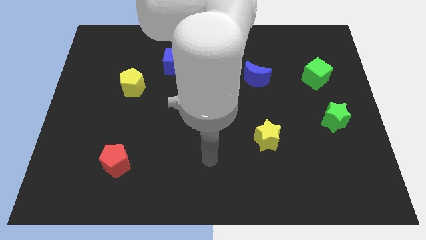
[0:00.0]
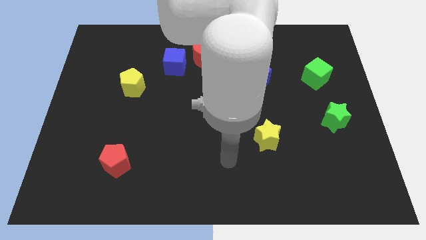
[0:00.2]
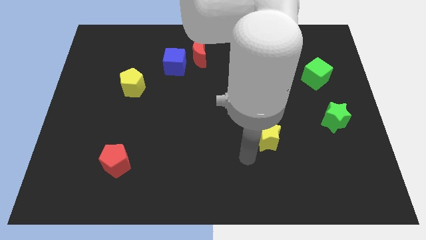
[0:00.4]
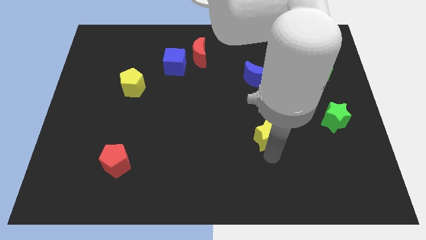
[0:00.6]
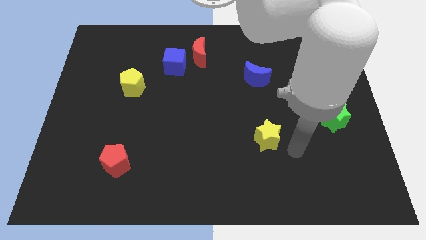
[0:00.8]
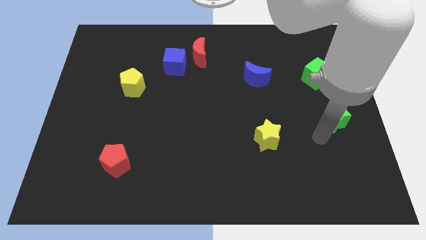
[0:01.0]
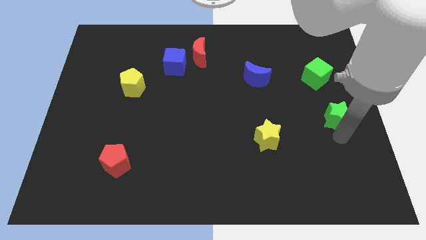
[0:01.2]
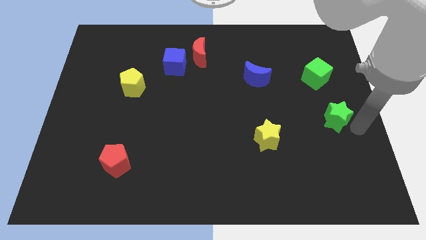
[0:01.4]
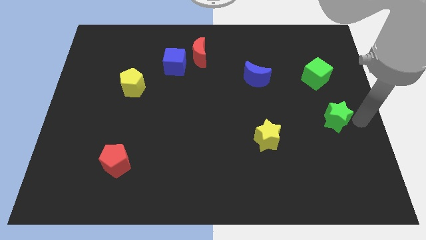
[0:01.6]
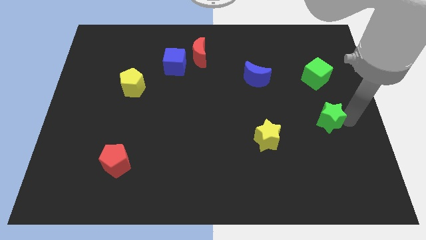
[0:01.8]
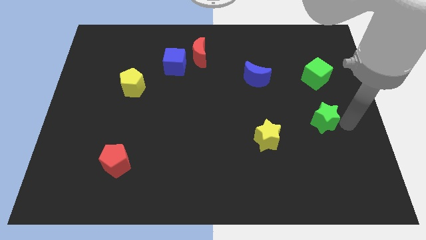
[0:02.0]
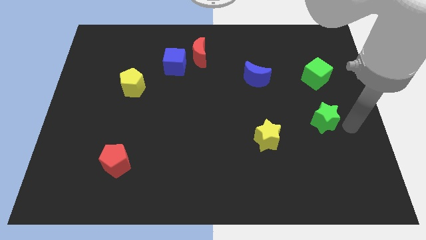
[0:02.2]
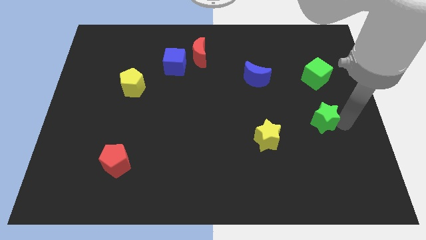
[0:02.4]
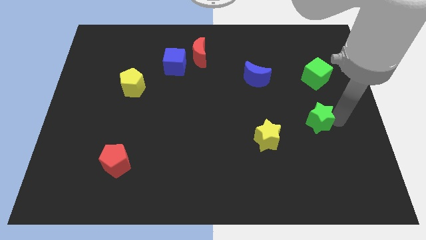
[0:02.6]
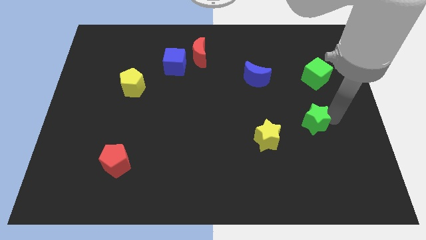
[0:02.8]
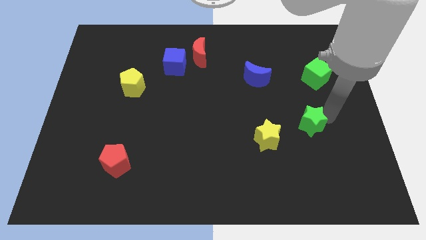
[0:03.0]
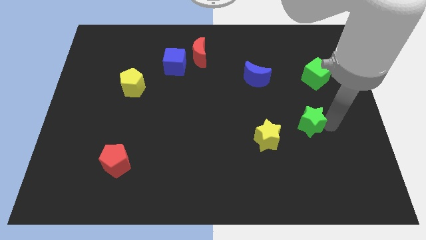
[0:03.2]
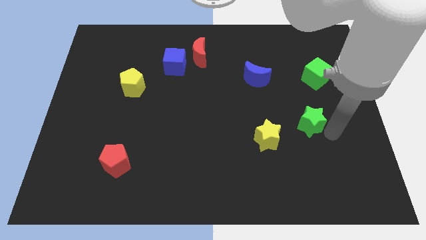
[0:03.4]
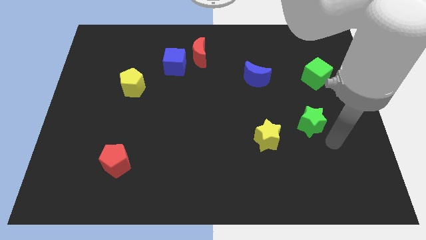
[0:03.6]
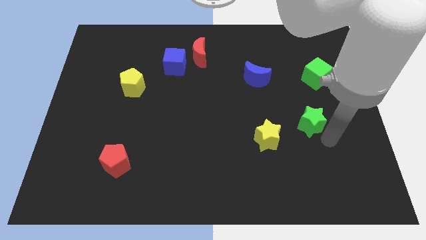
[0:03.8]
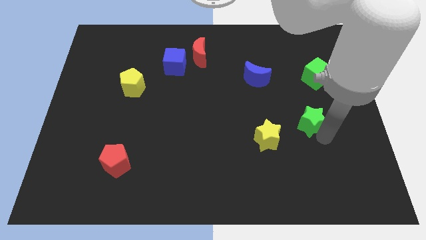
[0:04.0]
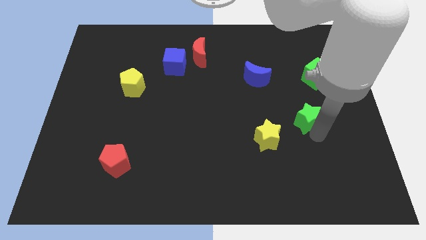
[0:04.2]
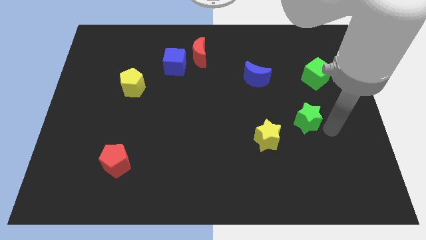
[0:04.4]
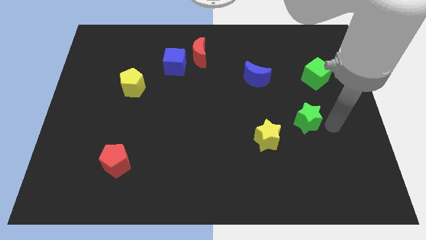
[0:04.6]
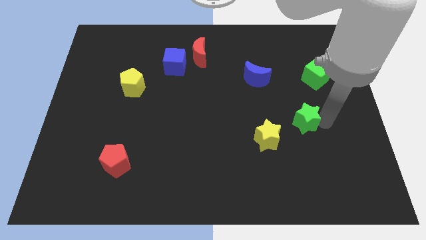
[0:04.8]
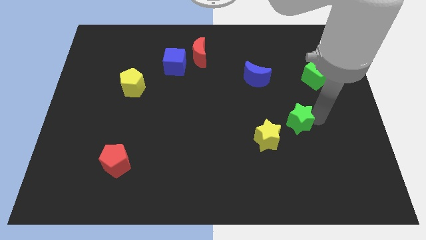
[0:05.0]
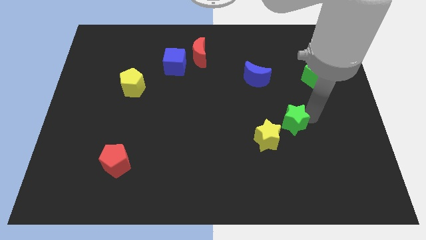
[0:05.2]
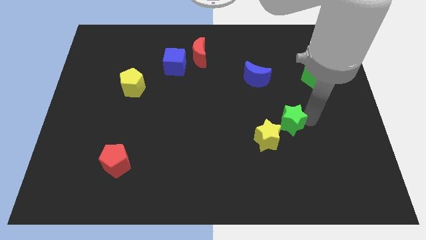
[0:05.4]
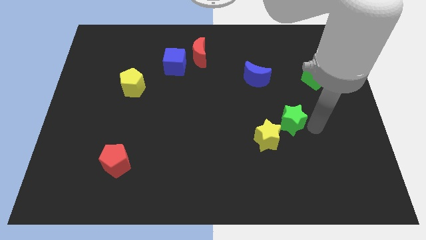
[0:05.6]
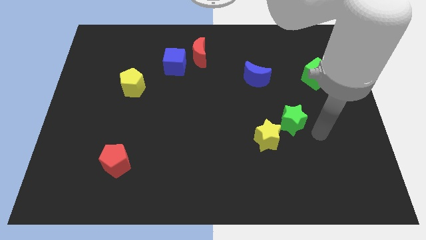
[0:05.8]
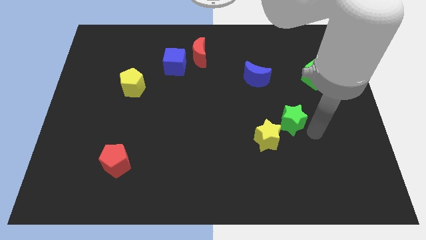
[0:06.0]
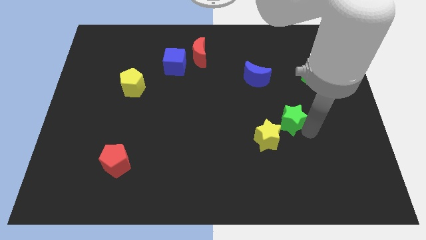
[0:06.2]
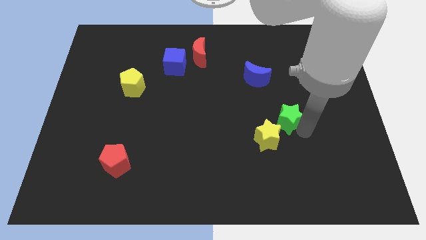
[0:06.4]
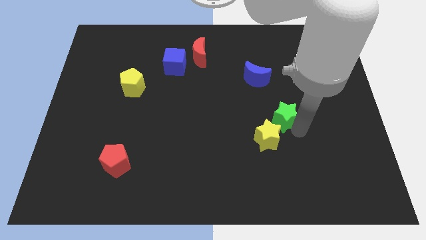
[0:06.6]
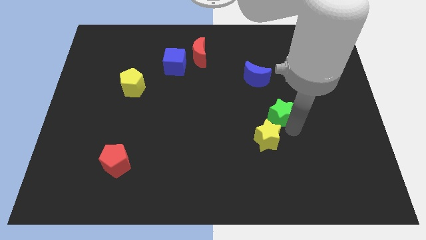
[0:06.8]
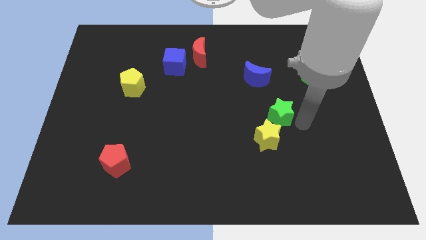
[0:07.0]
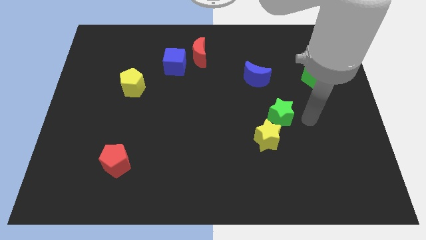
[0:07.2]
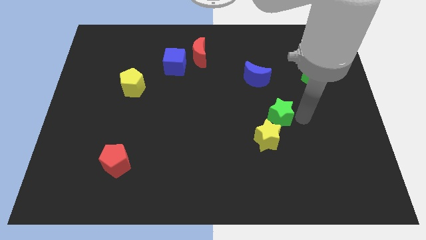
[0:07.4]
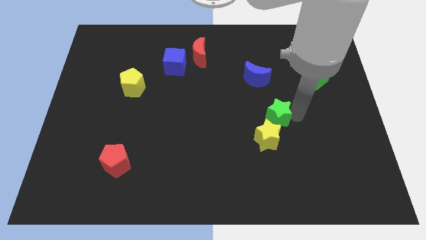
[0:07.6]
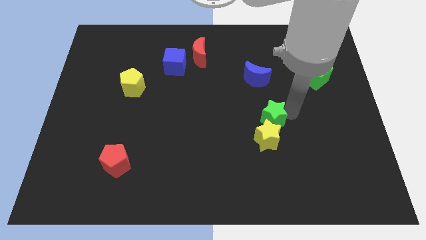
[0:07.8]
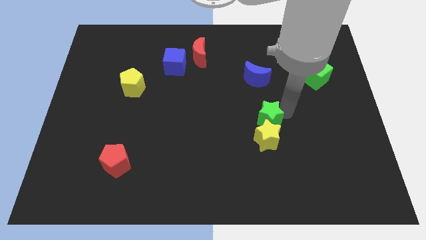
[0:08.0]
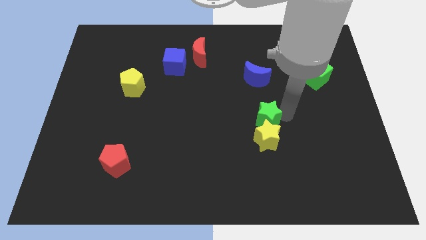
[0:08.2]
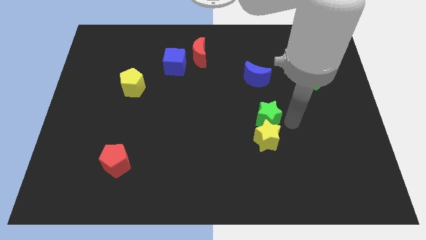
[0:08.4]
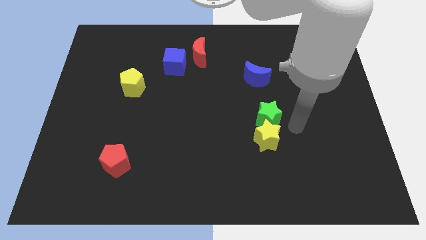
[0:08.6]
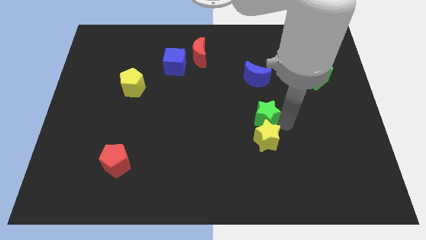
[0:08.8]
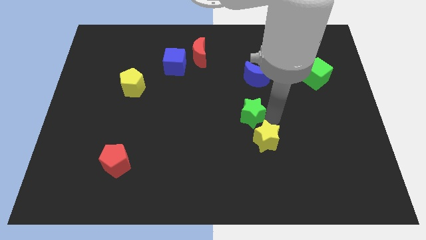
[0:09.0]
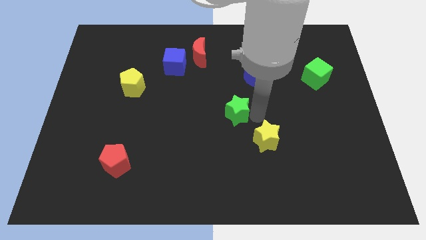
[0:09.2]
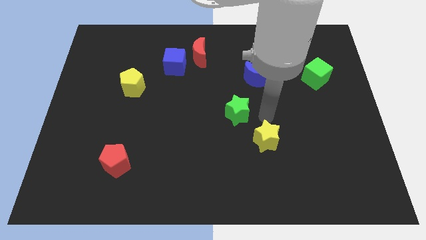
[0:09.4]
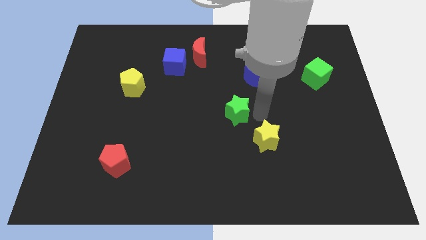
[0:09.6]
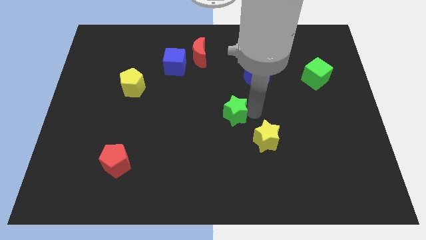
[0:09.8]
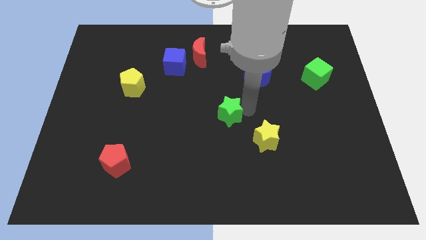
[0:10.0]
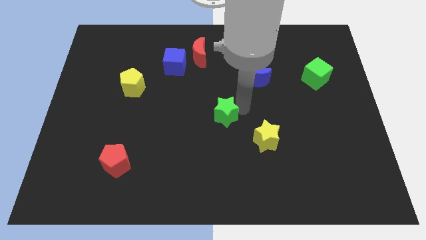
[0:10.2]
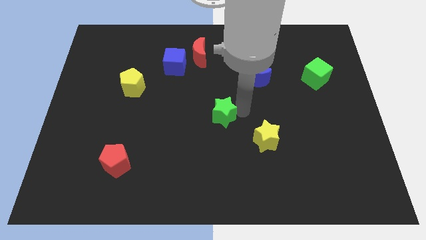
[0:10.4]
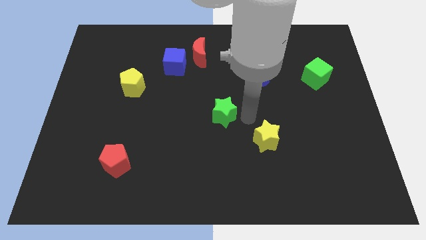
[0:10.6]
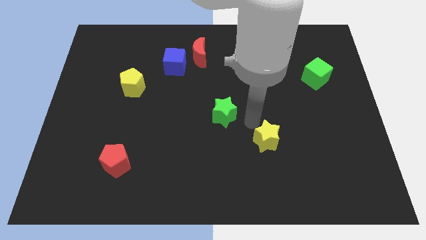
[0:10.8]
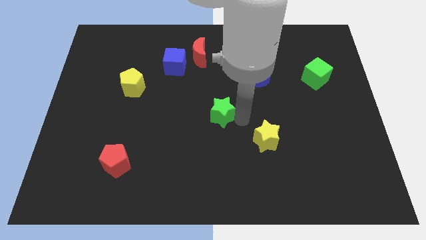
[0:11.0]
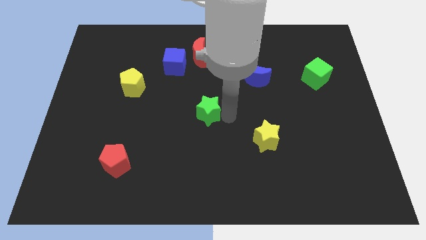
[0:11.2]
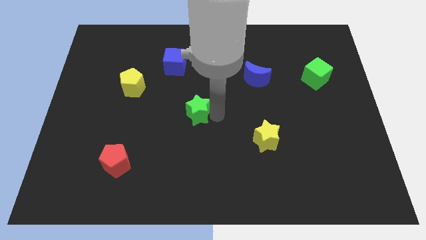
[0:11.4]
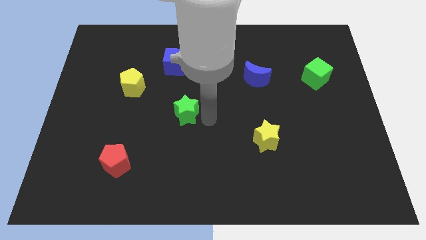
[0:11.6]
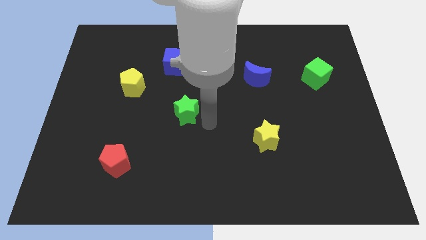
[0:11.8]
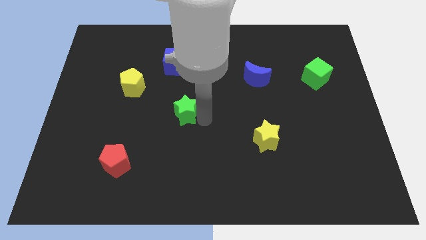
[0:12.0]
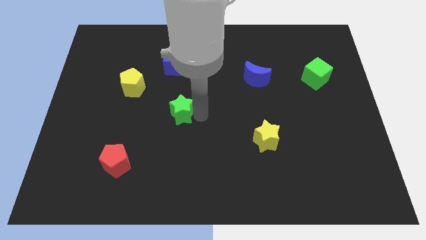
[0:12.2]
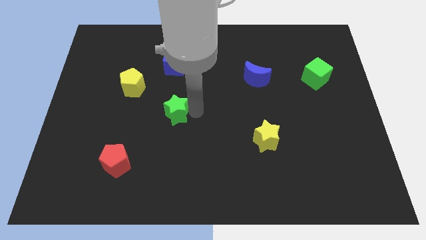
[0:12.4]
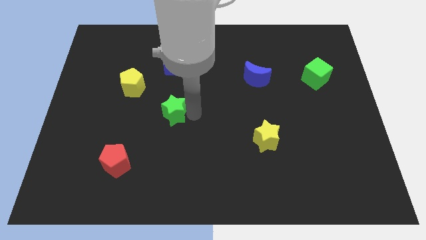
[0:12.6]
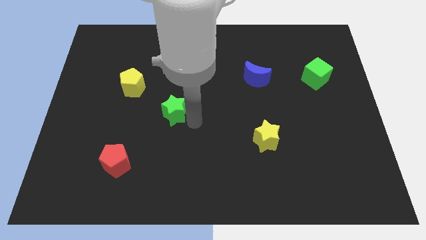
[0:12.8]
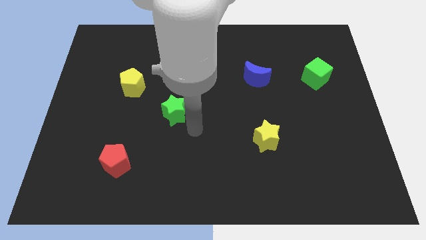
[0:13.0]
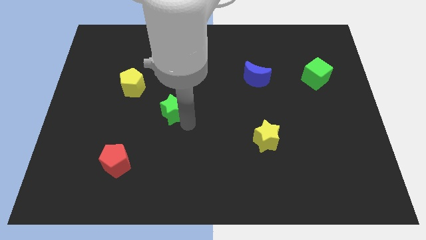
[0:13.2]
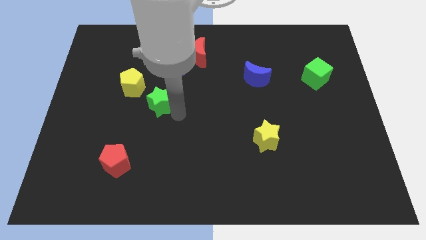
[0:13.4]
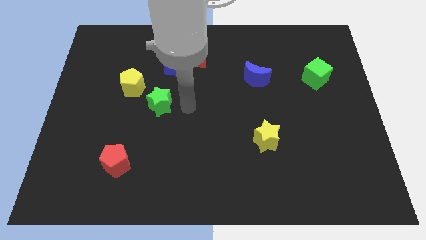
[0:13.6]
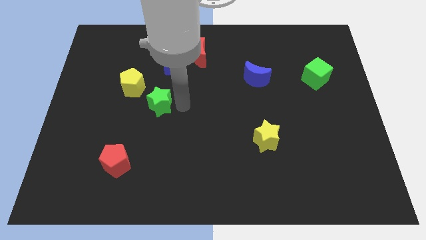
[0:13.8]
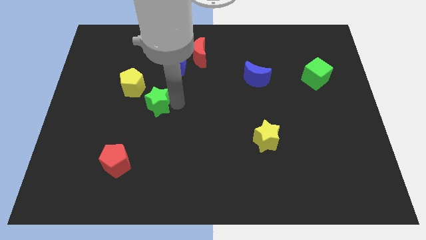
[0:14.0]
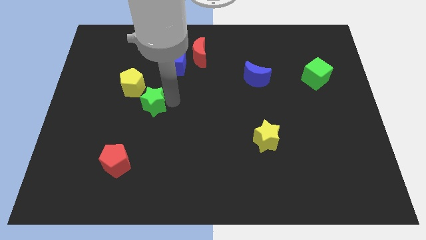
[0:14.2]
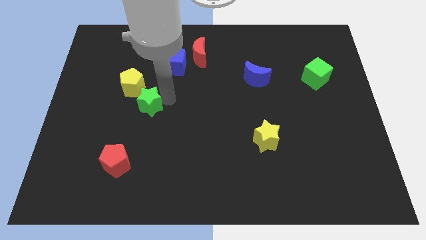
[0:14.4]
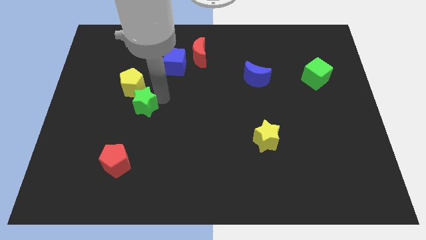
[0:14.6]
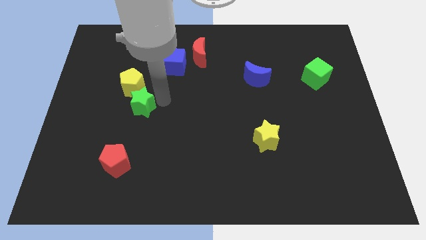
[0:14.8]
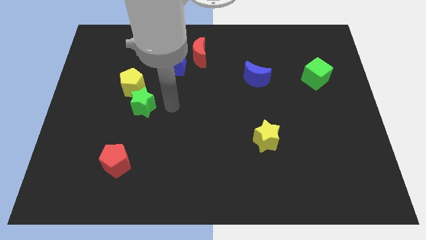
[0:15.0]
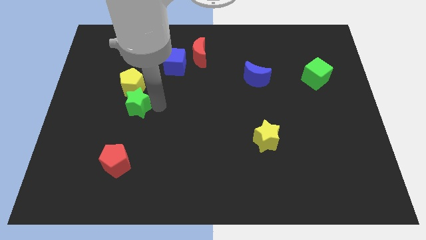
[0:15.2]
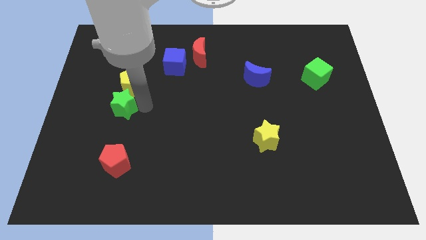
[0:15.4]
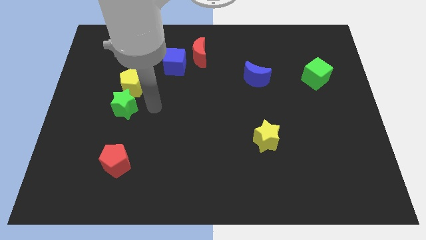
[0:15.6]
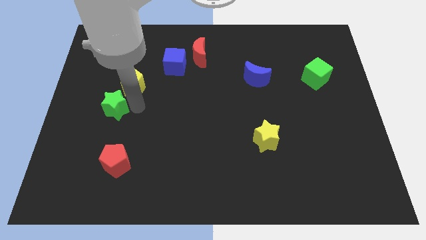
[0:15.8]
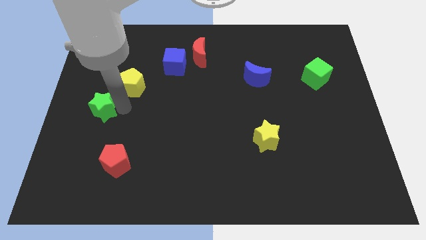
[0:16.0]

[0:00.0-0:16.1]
put the green star to the left side of the board
